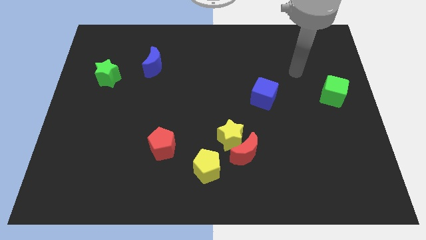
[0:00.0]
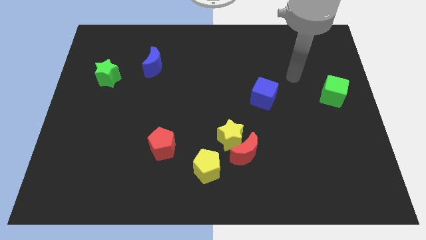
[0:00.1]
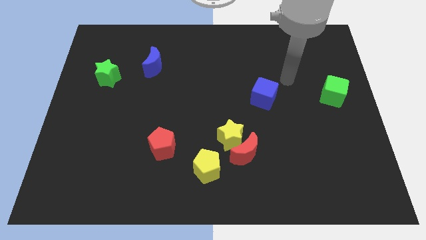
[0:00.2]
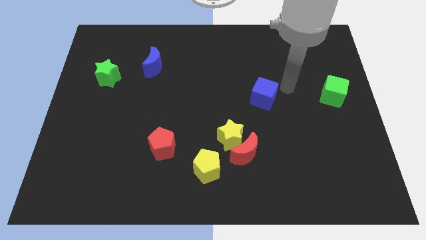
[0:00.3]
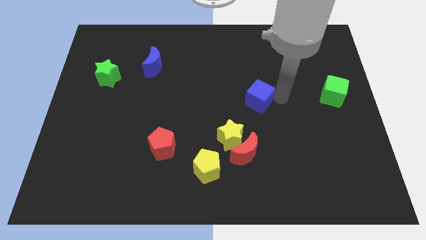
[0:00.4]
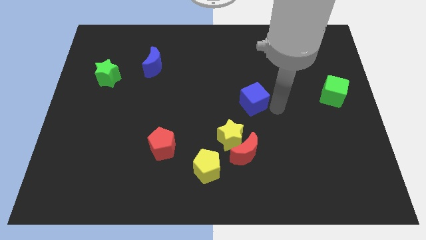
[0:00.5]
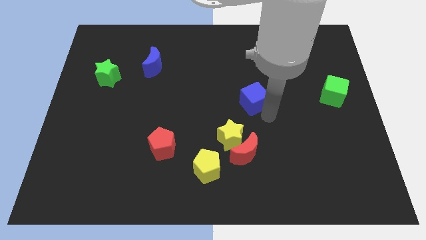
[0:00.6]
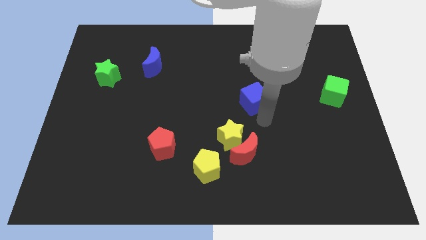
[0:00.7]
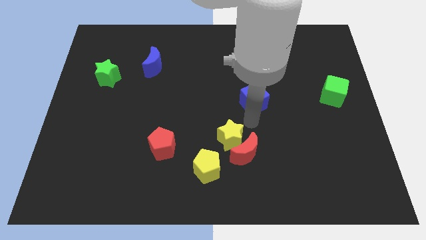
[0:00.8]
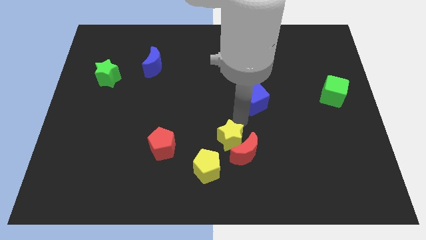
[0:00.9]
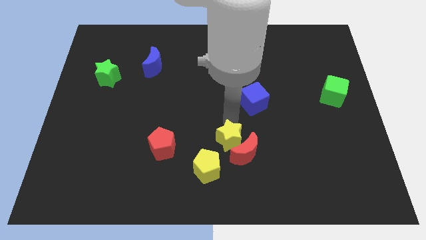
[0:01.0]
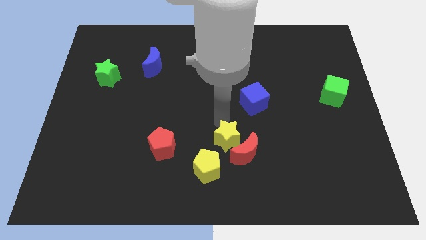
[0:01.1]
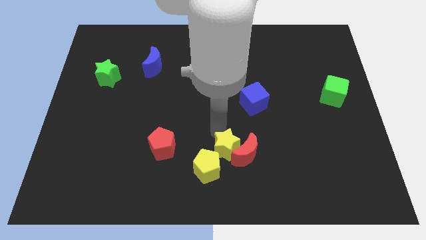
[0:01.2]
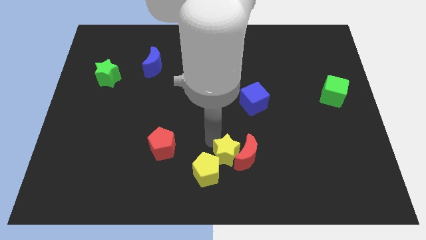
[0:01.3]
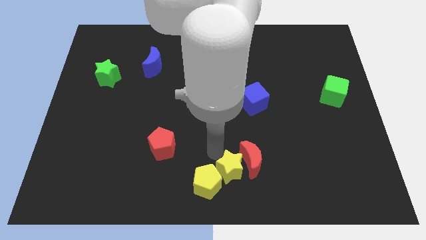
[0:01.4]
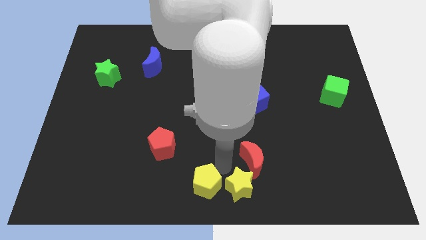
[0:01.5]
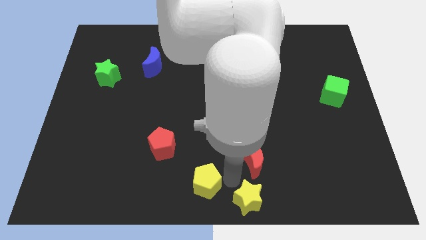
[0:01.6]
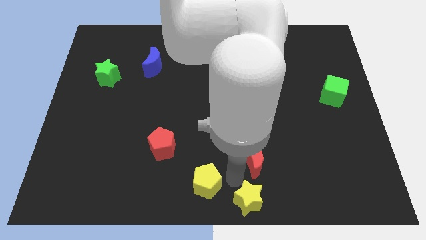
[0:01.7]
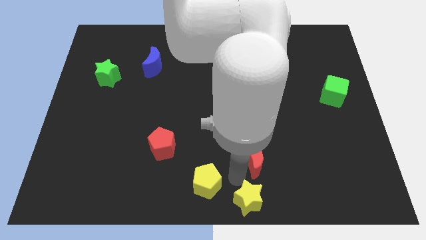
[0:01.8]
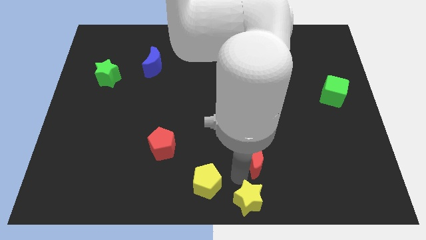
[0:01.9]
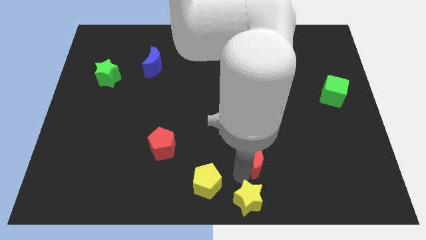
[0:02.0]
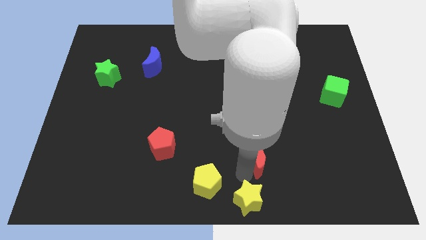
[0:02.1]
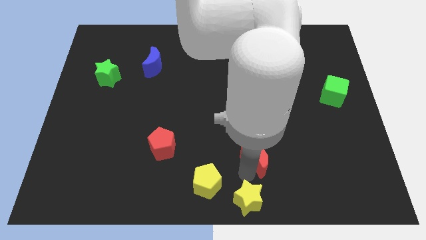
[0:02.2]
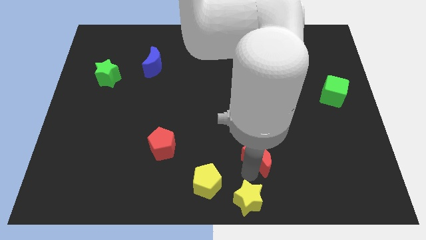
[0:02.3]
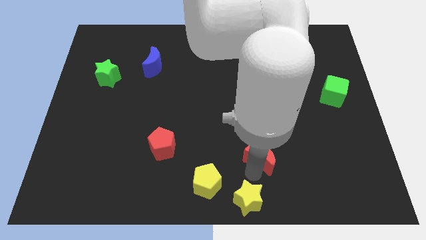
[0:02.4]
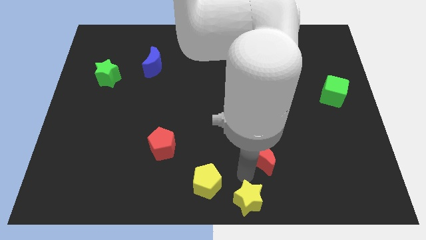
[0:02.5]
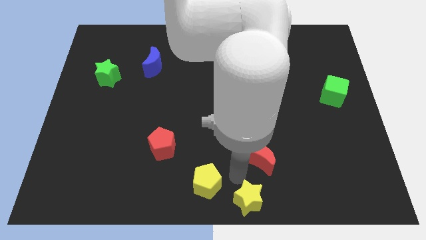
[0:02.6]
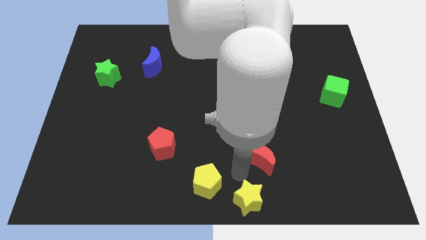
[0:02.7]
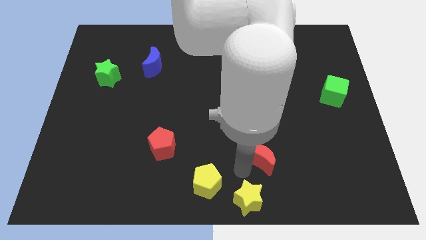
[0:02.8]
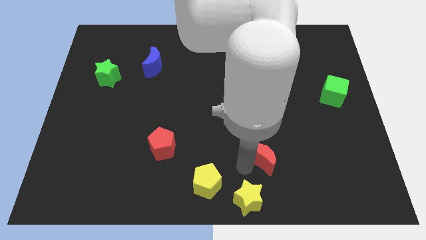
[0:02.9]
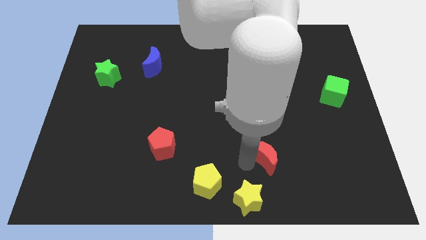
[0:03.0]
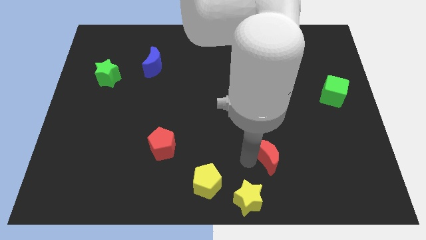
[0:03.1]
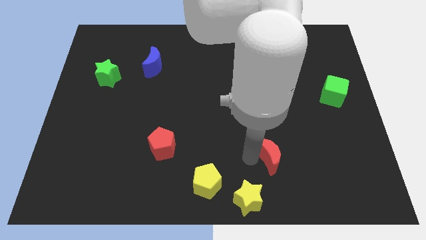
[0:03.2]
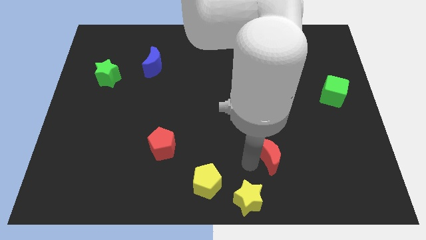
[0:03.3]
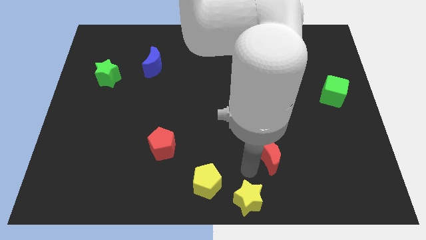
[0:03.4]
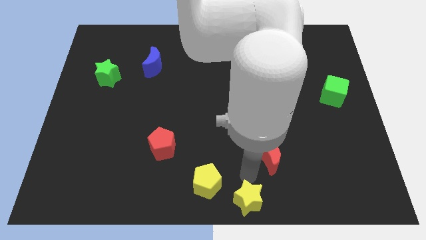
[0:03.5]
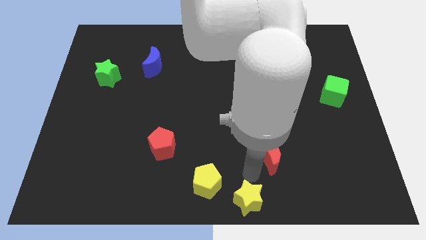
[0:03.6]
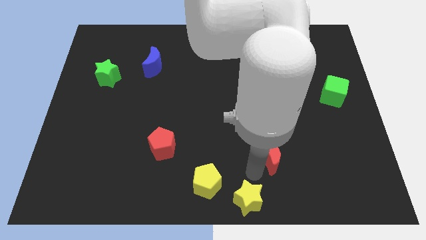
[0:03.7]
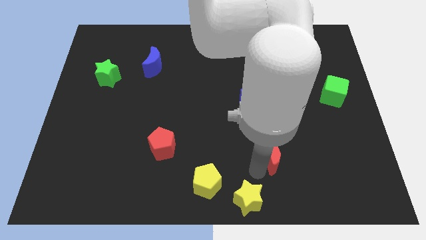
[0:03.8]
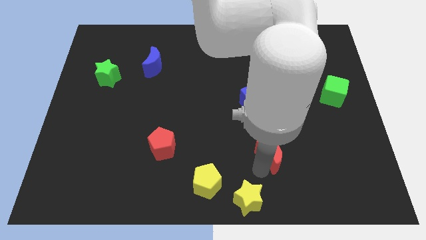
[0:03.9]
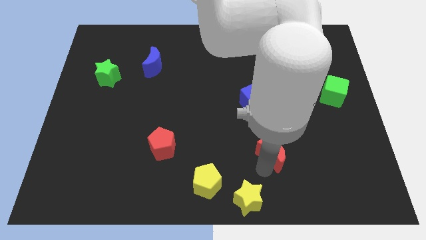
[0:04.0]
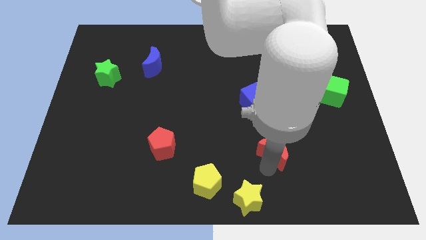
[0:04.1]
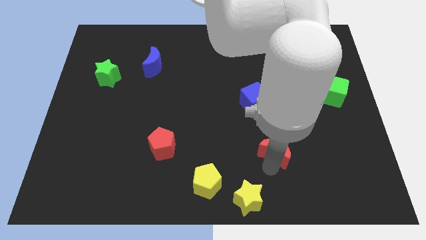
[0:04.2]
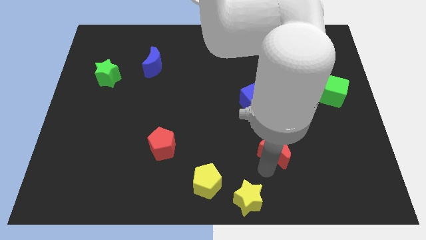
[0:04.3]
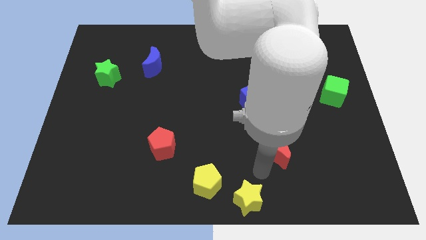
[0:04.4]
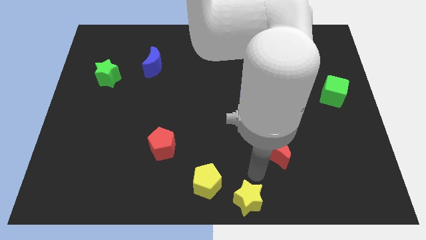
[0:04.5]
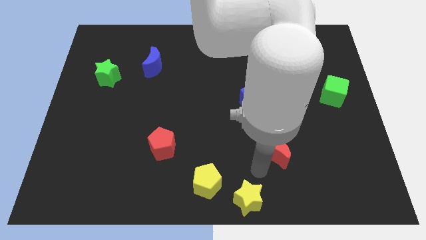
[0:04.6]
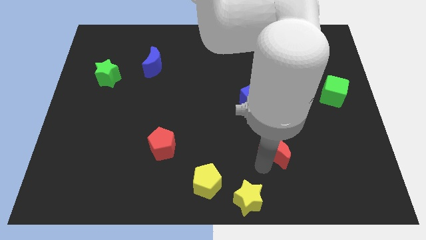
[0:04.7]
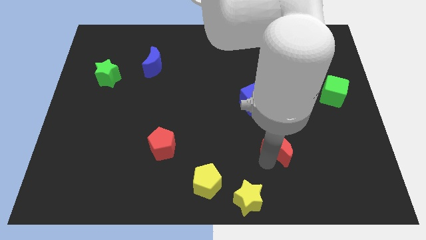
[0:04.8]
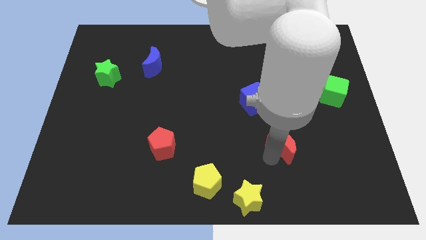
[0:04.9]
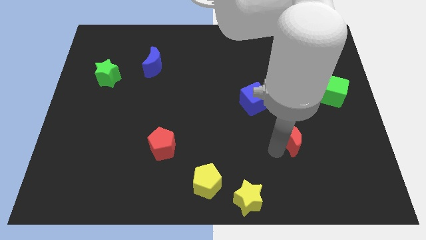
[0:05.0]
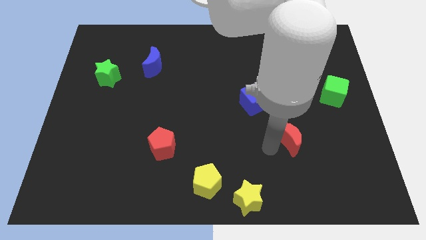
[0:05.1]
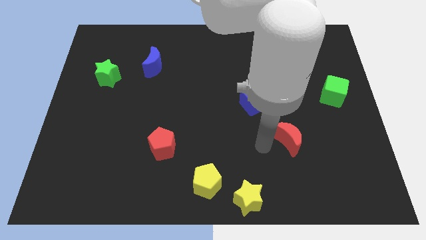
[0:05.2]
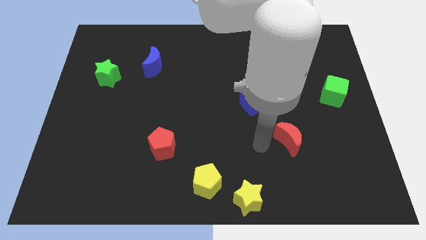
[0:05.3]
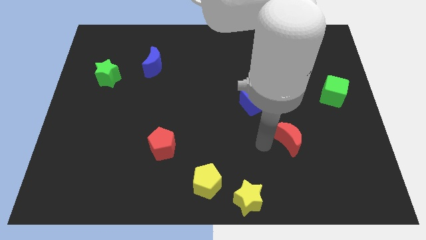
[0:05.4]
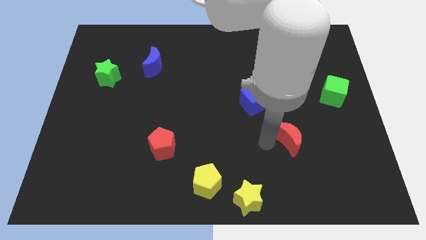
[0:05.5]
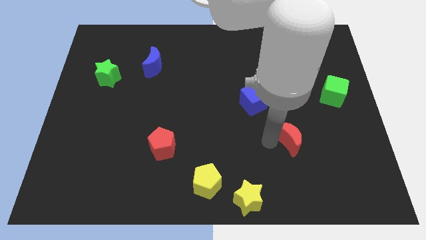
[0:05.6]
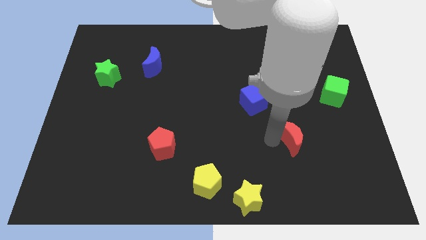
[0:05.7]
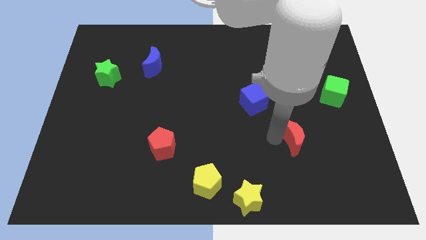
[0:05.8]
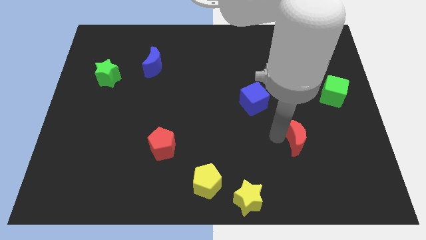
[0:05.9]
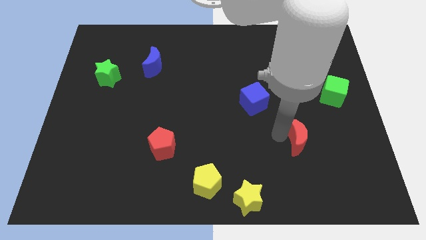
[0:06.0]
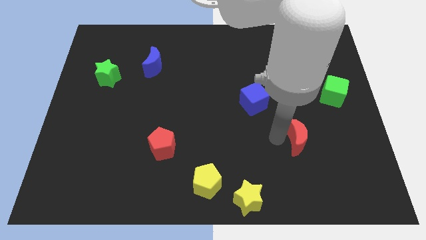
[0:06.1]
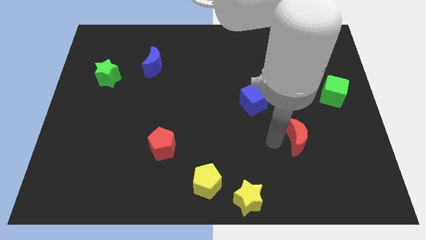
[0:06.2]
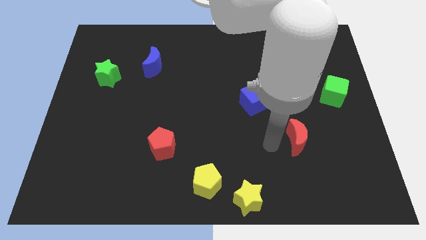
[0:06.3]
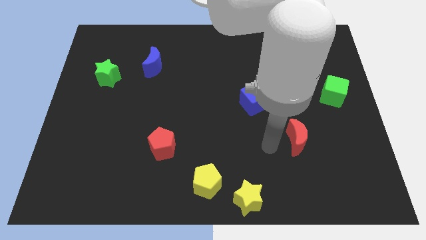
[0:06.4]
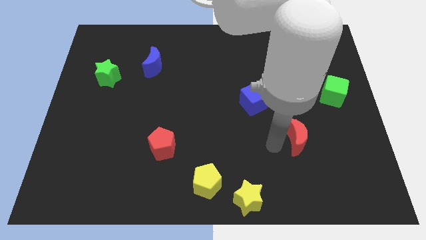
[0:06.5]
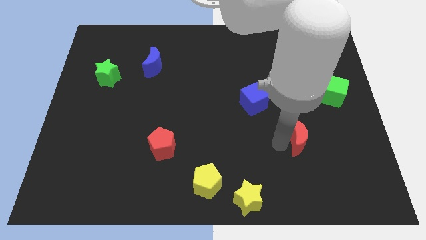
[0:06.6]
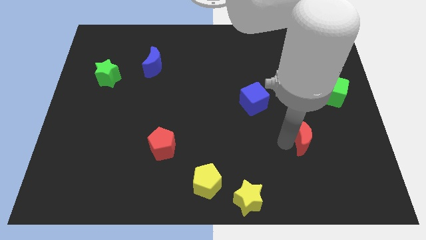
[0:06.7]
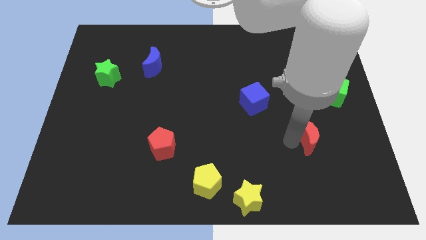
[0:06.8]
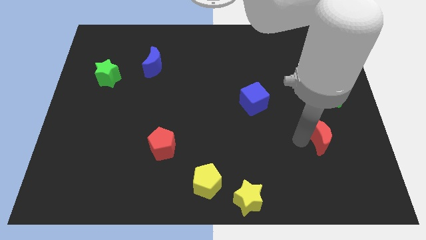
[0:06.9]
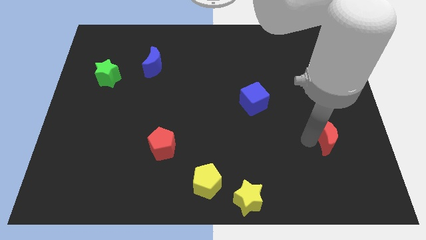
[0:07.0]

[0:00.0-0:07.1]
push the red moon to the bottom side of the green cube
